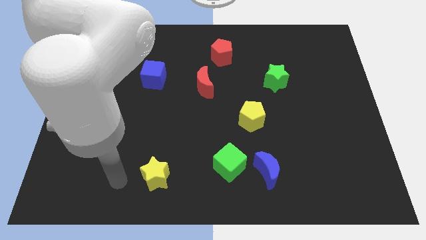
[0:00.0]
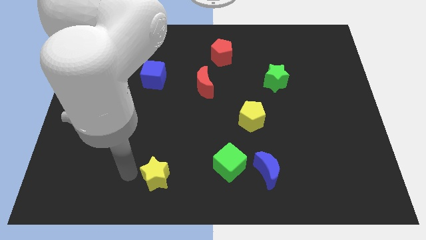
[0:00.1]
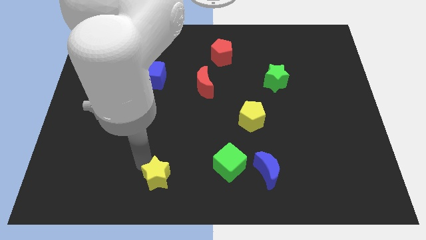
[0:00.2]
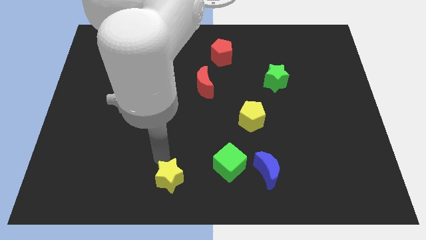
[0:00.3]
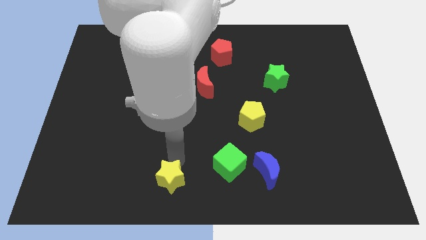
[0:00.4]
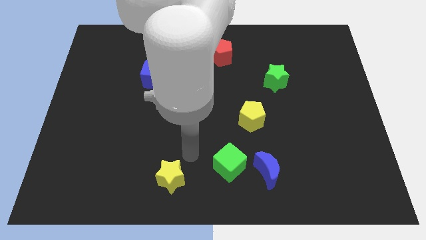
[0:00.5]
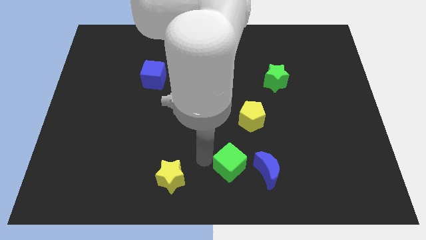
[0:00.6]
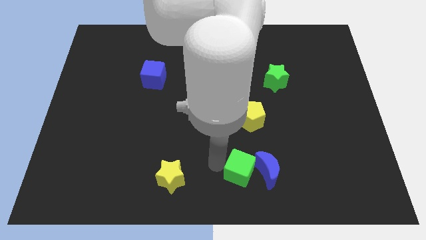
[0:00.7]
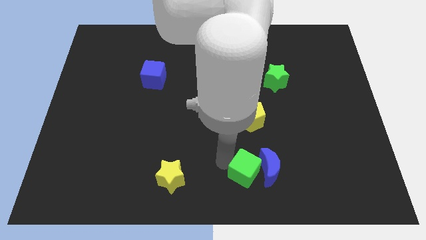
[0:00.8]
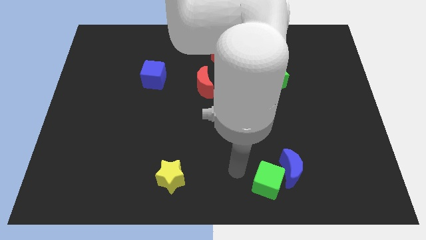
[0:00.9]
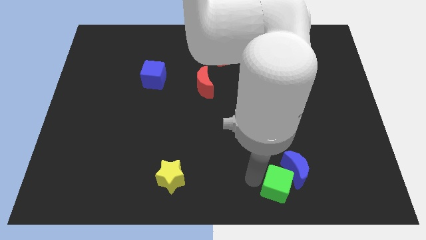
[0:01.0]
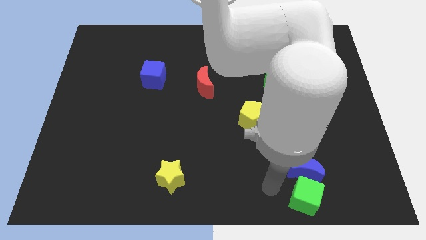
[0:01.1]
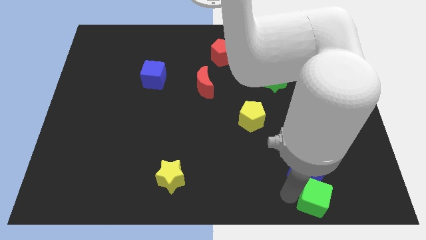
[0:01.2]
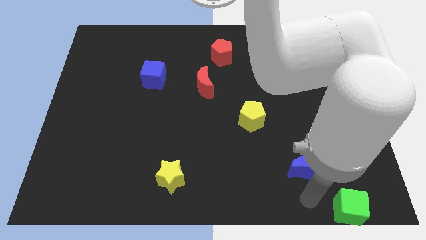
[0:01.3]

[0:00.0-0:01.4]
move the blue moon away from the green cube

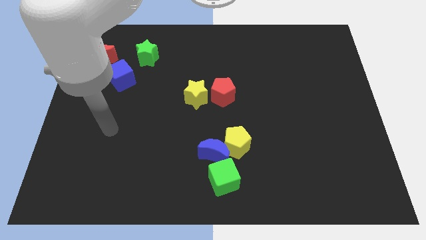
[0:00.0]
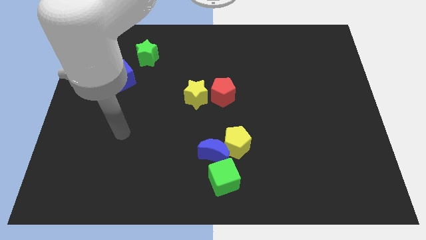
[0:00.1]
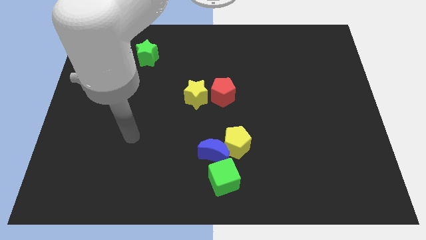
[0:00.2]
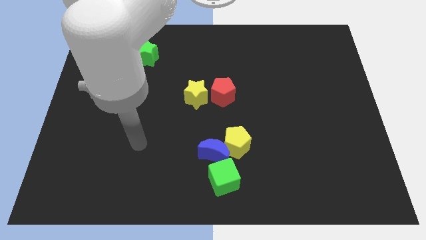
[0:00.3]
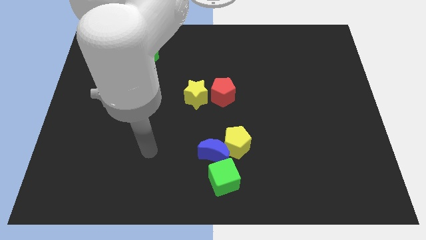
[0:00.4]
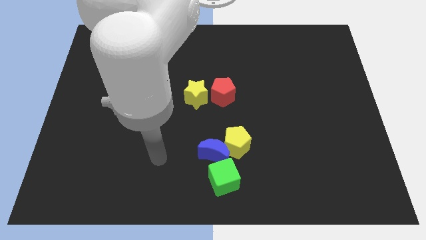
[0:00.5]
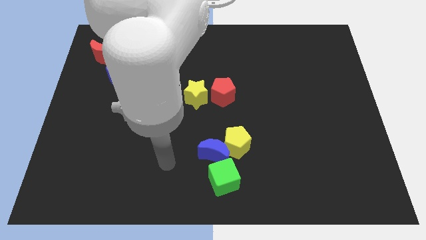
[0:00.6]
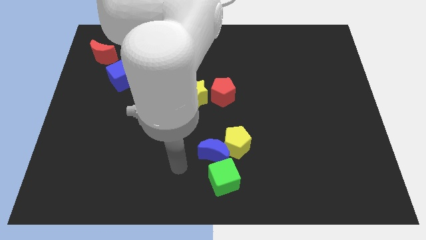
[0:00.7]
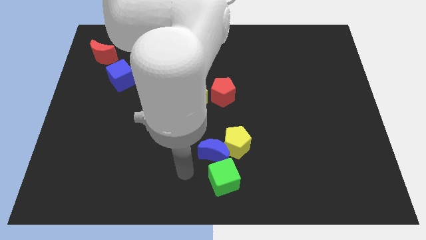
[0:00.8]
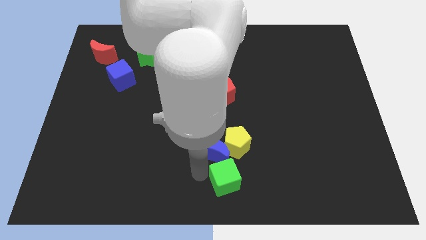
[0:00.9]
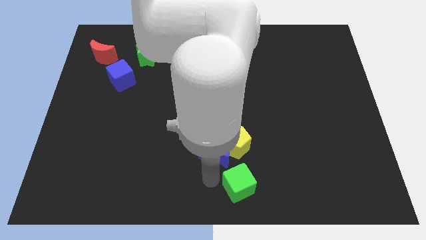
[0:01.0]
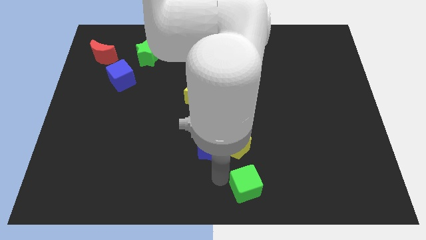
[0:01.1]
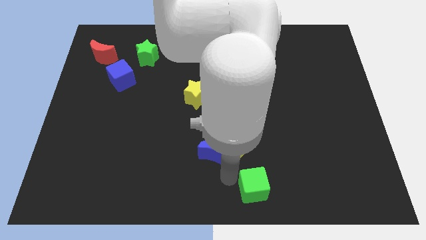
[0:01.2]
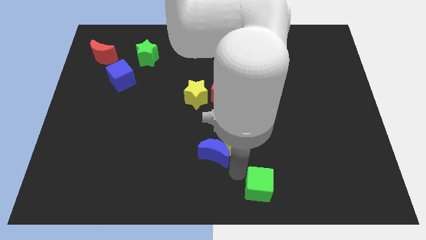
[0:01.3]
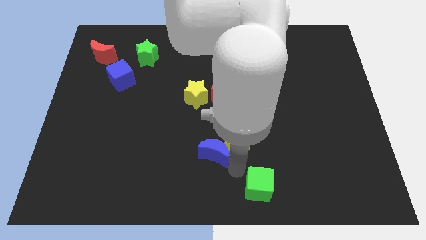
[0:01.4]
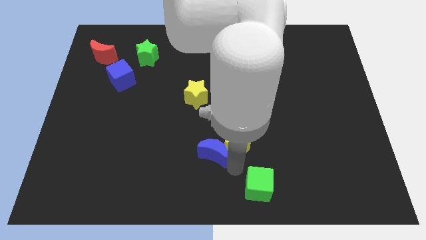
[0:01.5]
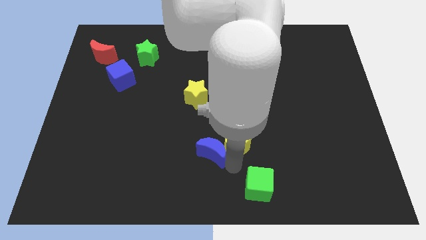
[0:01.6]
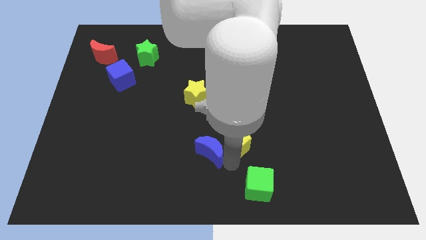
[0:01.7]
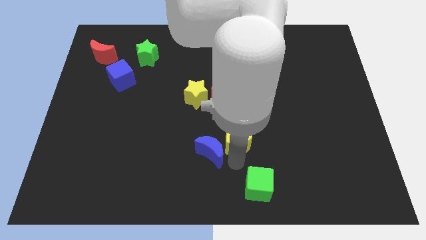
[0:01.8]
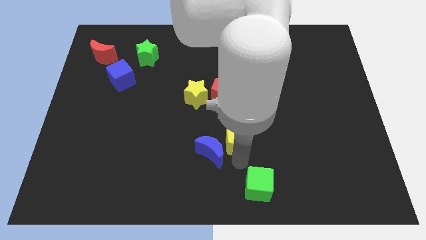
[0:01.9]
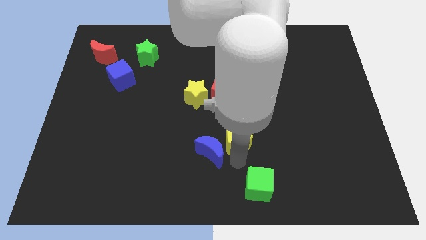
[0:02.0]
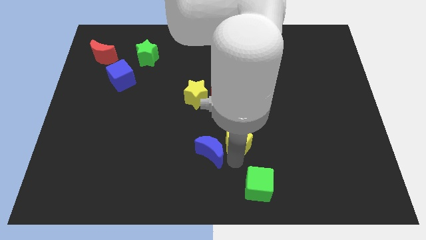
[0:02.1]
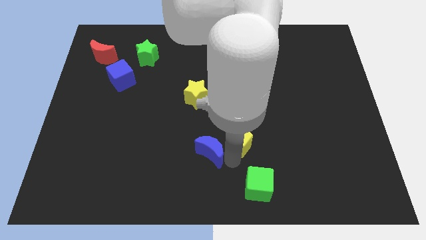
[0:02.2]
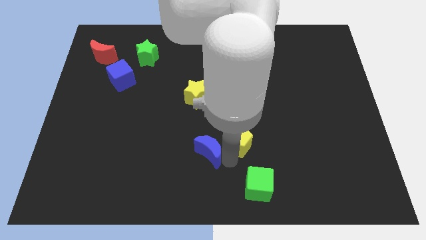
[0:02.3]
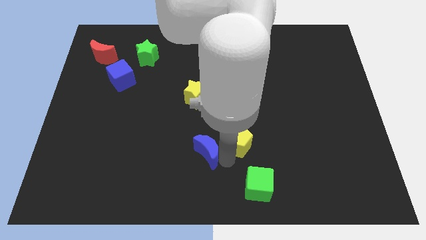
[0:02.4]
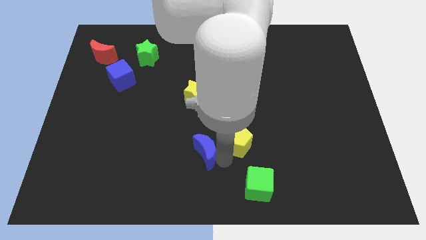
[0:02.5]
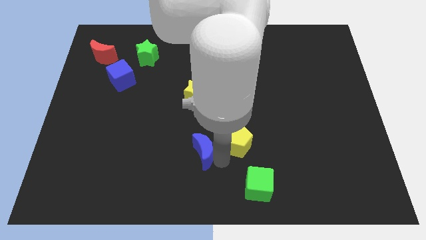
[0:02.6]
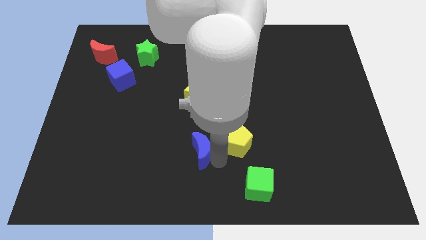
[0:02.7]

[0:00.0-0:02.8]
pull the blue moon apart from the yellow pentagon and green cube

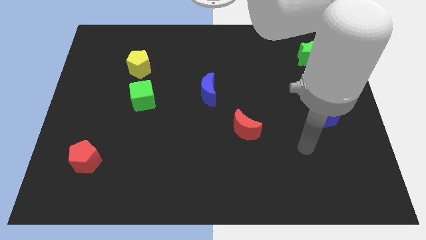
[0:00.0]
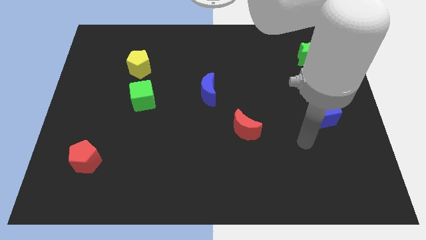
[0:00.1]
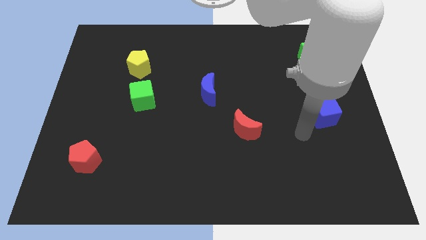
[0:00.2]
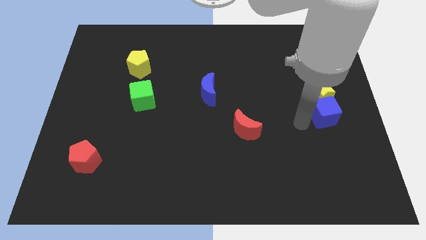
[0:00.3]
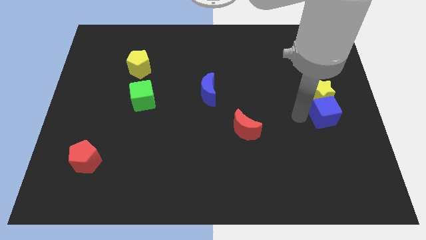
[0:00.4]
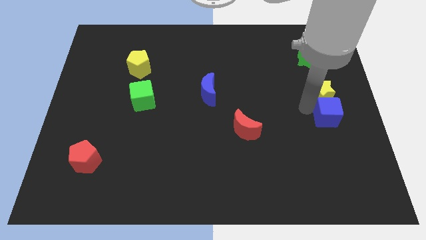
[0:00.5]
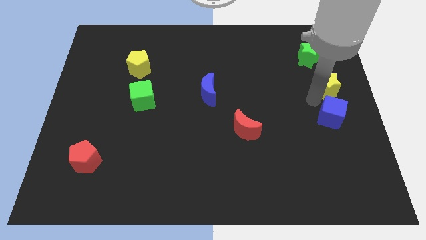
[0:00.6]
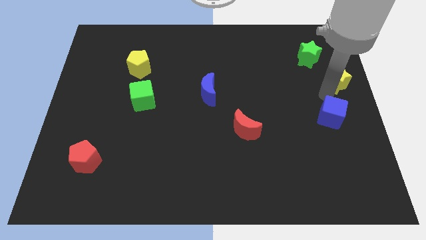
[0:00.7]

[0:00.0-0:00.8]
pull the blue cube apart from the yellow star

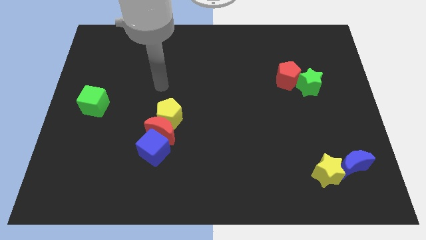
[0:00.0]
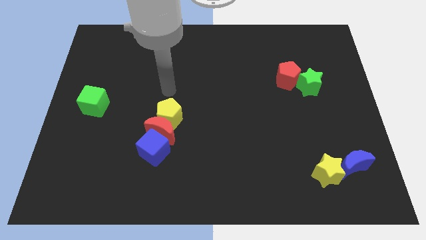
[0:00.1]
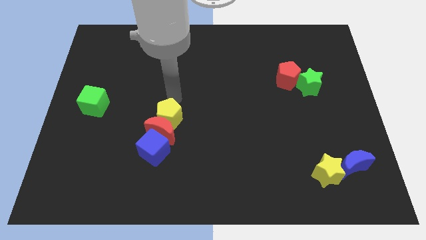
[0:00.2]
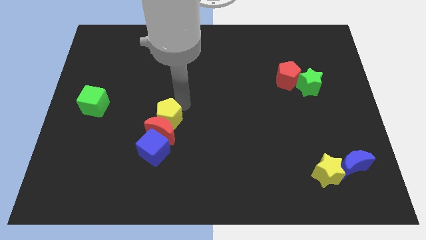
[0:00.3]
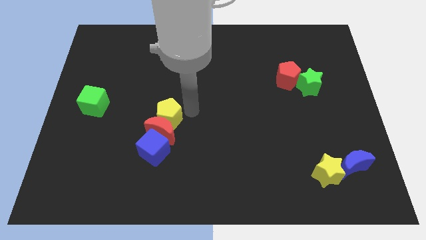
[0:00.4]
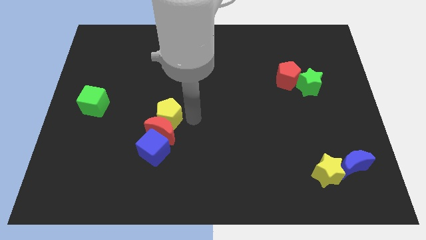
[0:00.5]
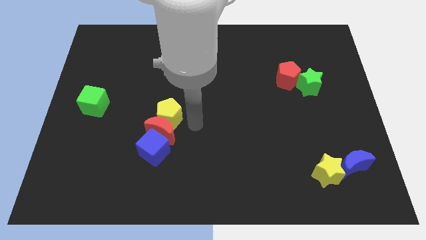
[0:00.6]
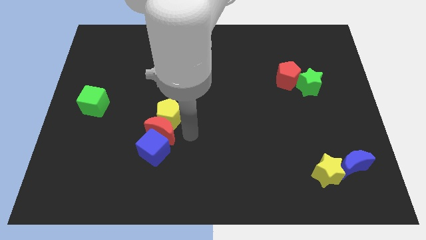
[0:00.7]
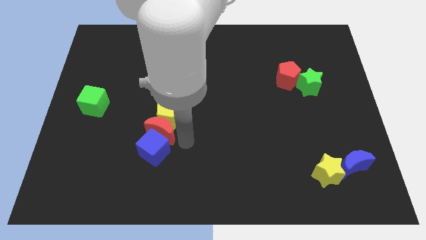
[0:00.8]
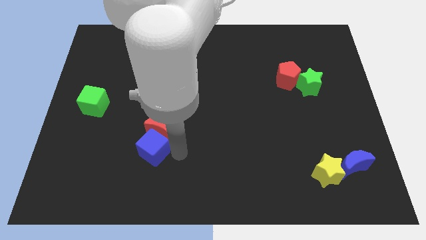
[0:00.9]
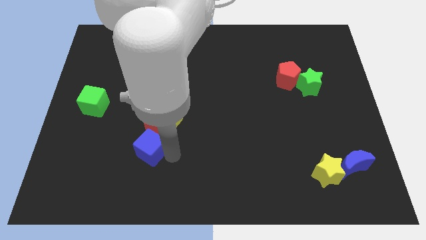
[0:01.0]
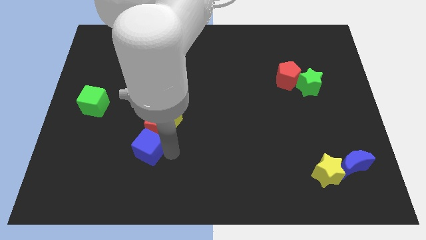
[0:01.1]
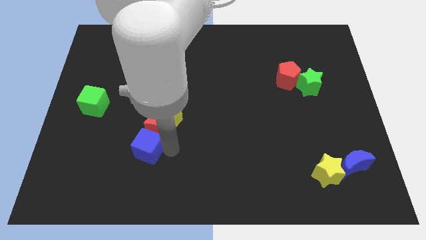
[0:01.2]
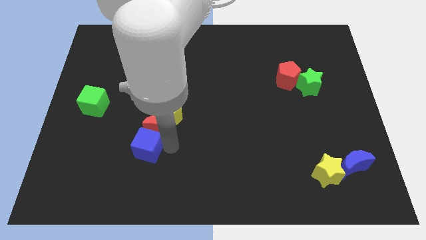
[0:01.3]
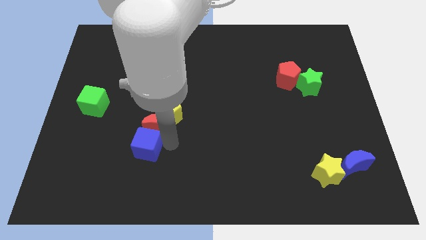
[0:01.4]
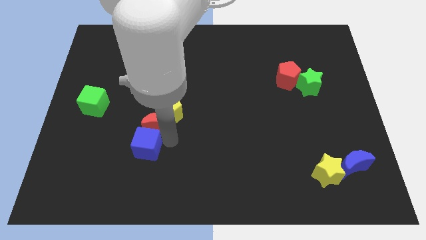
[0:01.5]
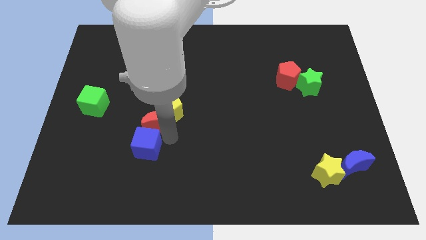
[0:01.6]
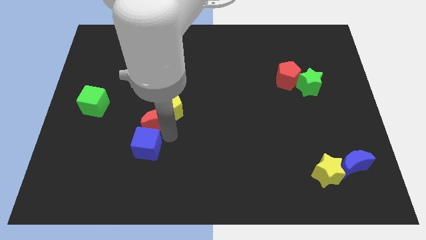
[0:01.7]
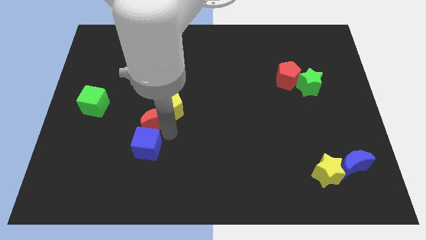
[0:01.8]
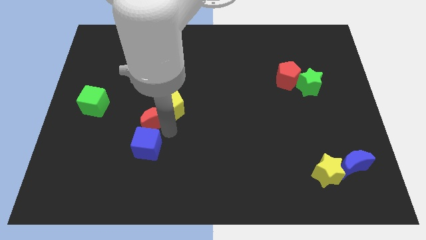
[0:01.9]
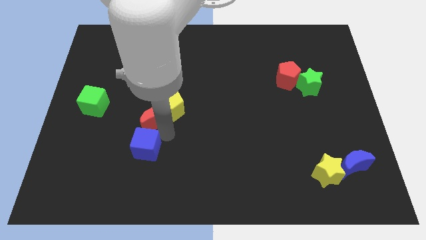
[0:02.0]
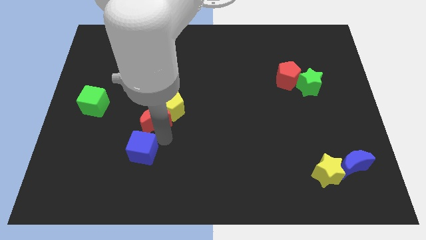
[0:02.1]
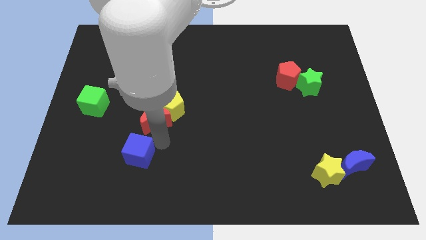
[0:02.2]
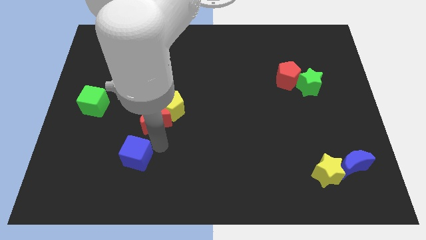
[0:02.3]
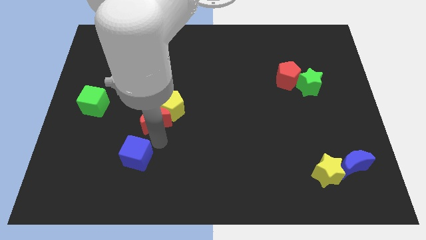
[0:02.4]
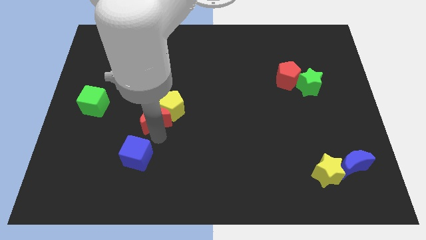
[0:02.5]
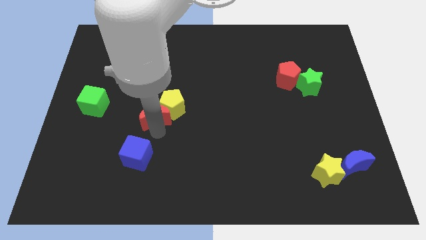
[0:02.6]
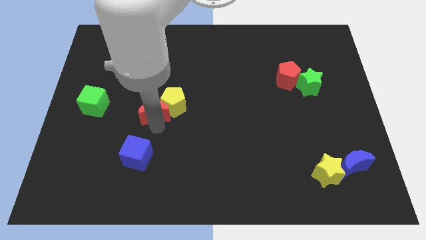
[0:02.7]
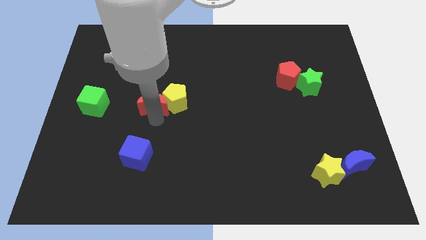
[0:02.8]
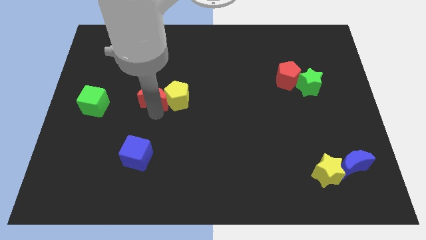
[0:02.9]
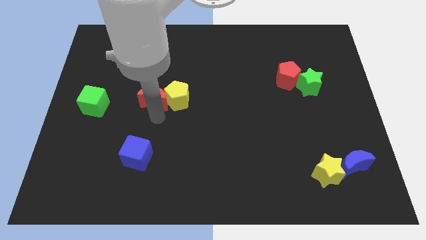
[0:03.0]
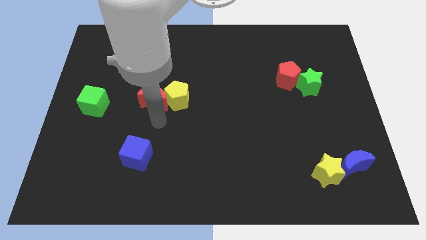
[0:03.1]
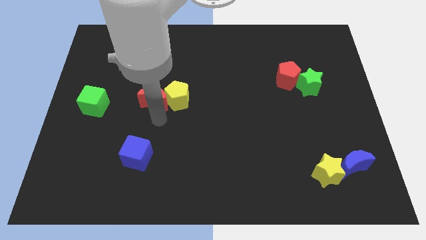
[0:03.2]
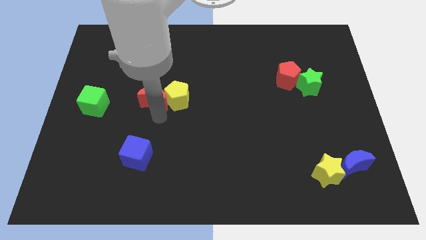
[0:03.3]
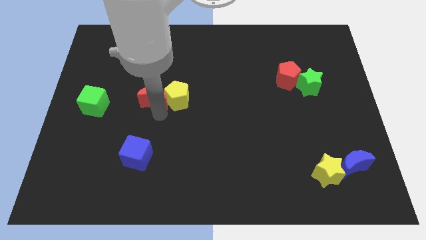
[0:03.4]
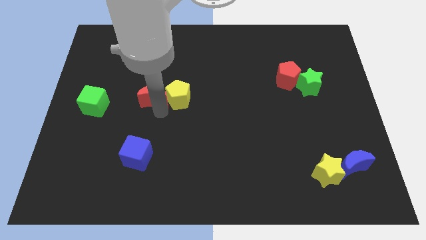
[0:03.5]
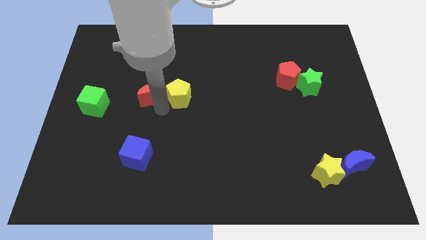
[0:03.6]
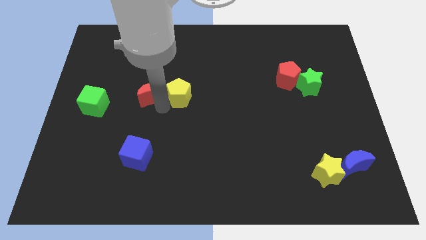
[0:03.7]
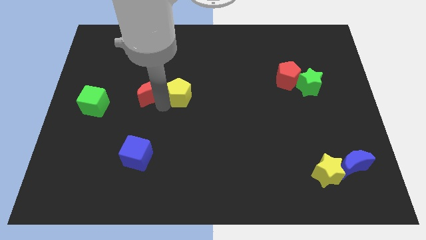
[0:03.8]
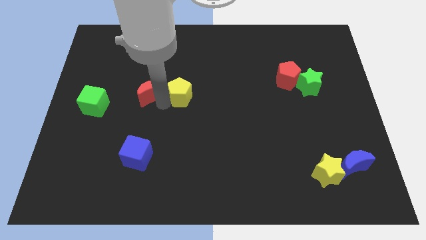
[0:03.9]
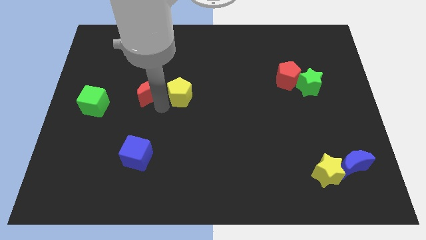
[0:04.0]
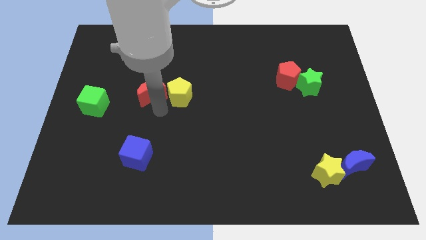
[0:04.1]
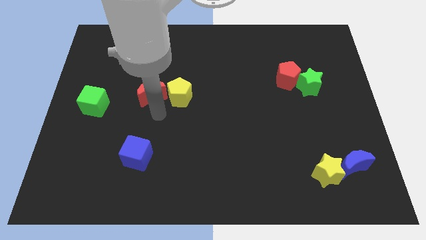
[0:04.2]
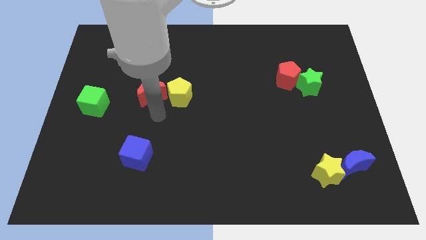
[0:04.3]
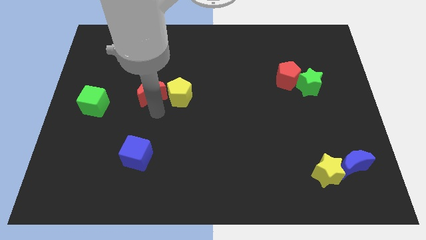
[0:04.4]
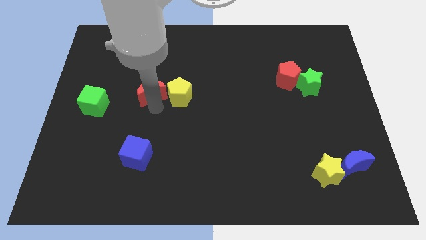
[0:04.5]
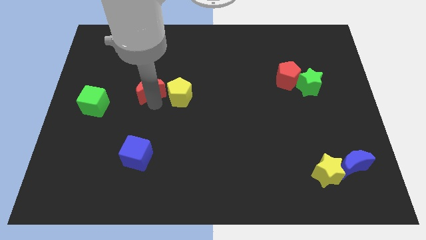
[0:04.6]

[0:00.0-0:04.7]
separate the red moon from the yellow pentagon and blue cube
